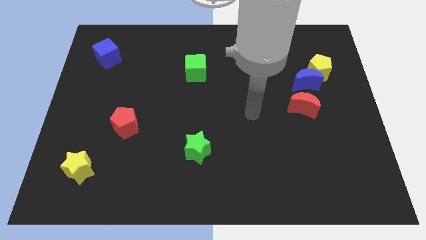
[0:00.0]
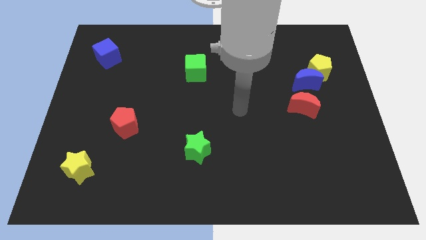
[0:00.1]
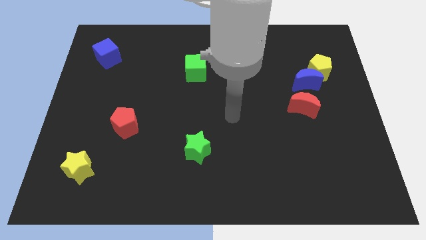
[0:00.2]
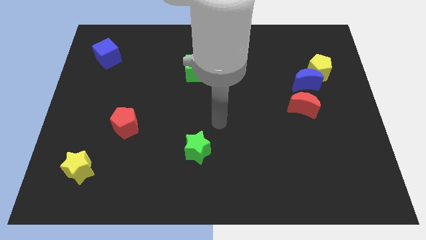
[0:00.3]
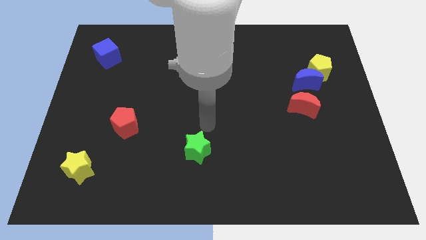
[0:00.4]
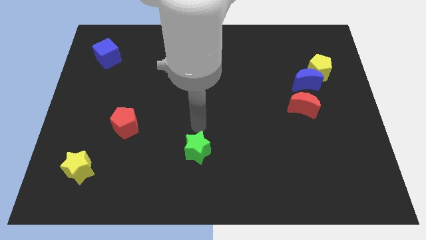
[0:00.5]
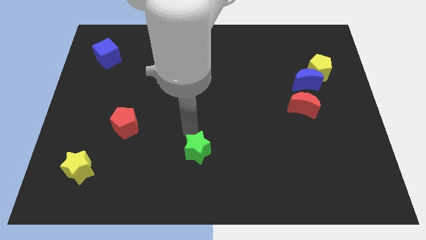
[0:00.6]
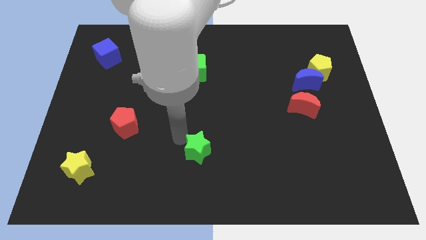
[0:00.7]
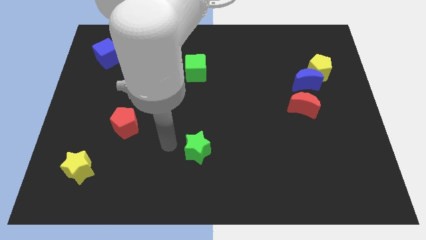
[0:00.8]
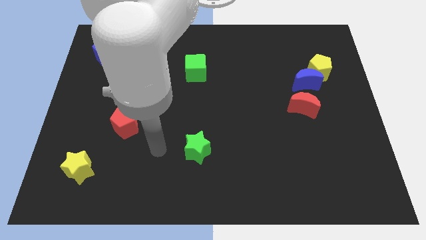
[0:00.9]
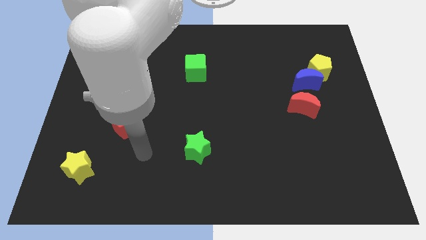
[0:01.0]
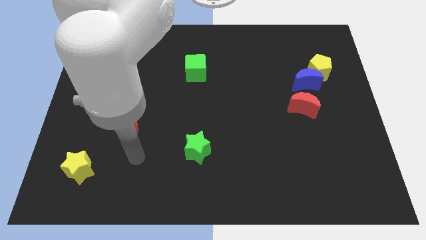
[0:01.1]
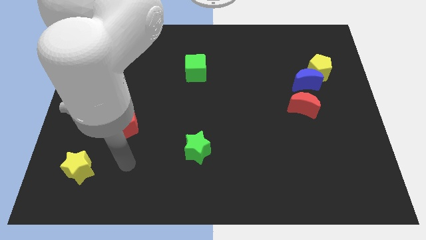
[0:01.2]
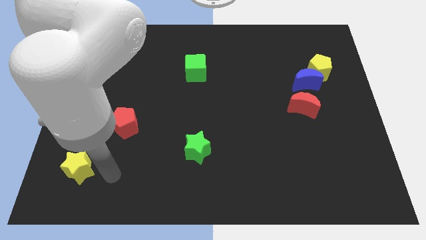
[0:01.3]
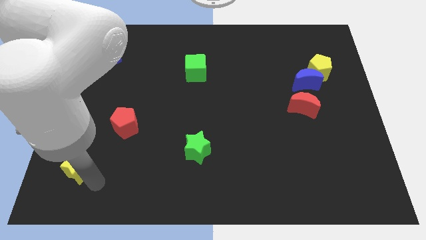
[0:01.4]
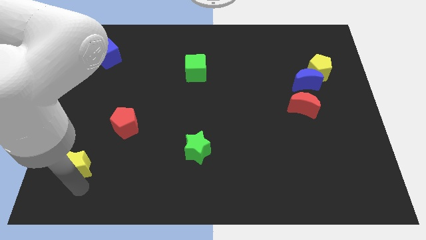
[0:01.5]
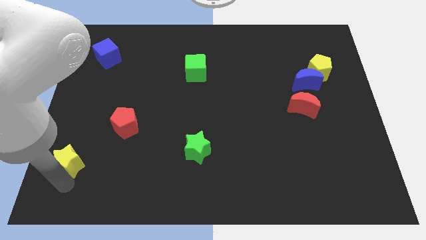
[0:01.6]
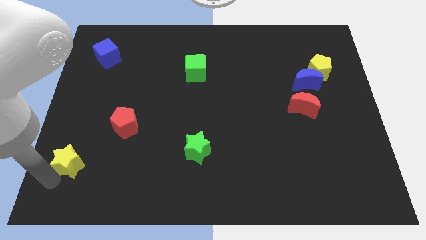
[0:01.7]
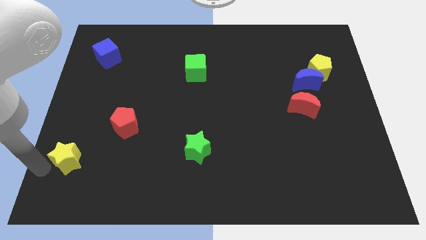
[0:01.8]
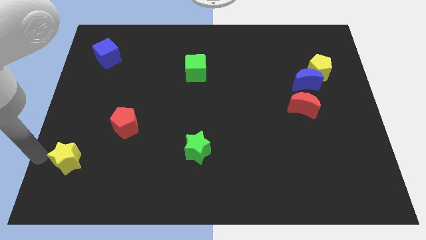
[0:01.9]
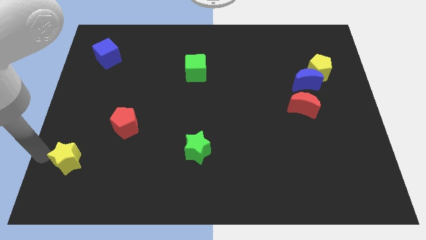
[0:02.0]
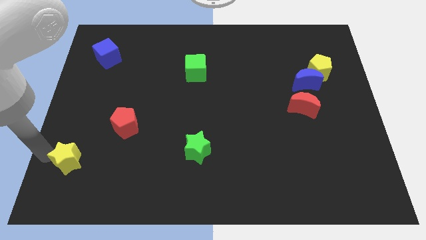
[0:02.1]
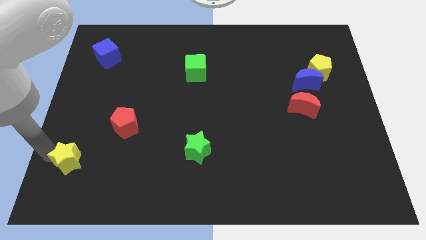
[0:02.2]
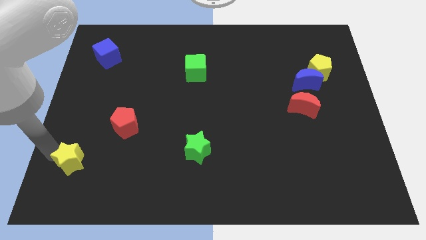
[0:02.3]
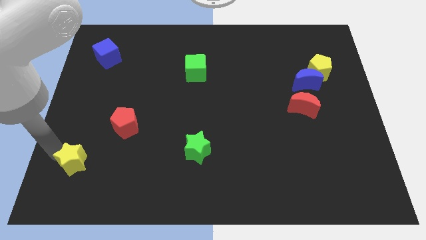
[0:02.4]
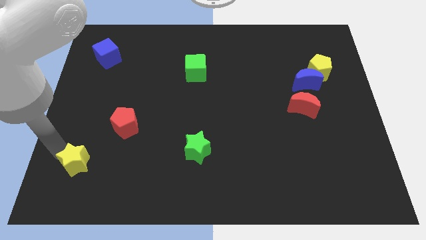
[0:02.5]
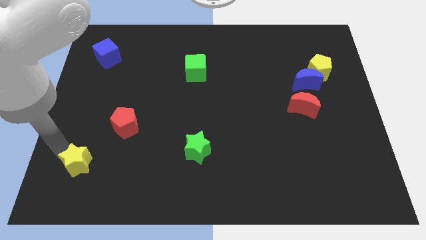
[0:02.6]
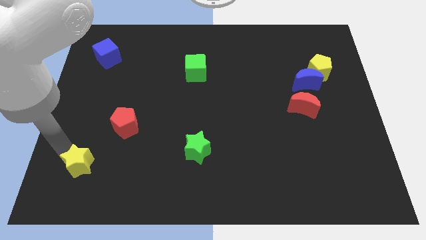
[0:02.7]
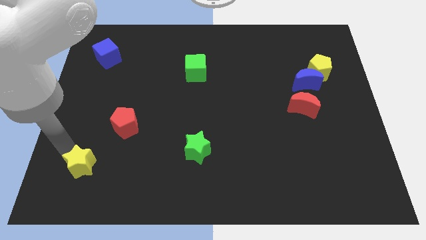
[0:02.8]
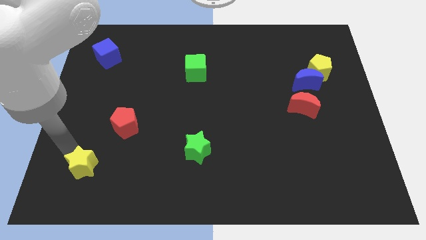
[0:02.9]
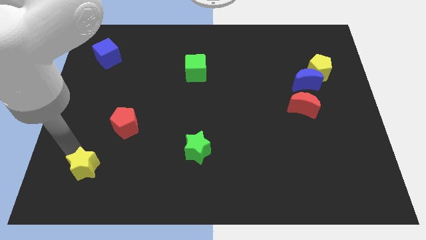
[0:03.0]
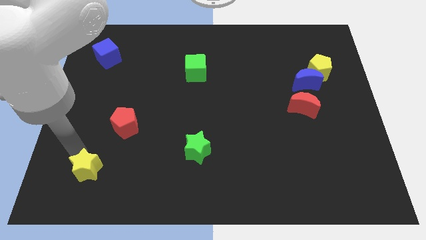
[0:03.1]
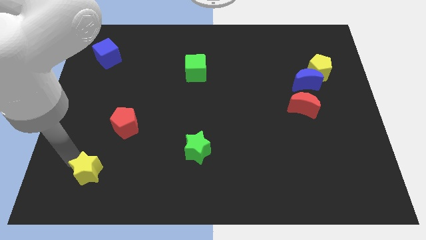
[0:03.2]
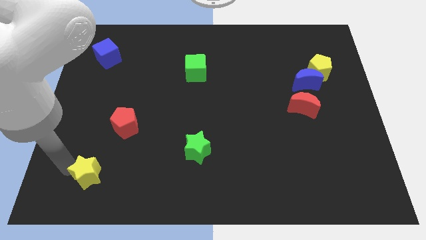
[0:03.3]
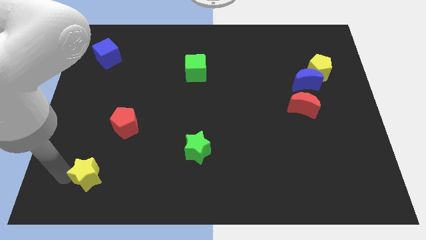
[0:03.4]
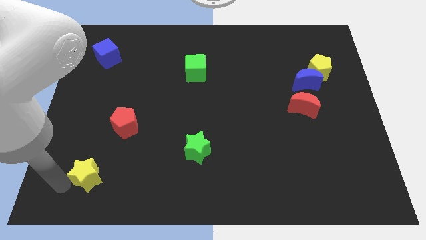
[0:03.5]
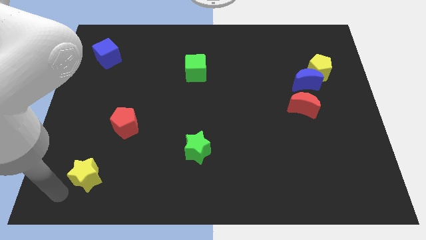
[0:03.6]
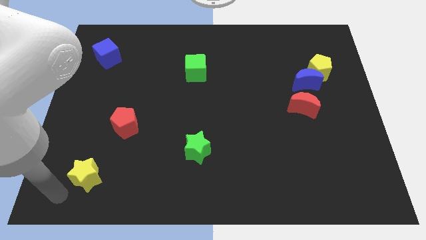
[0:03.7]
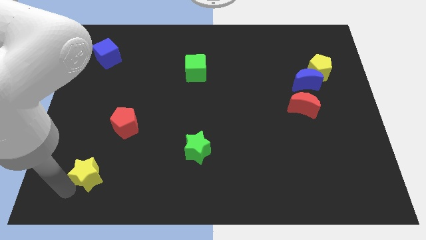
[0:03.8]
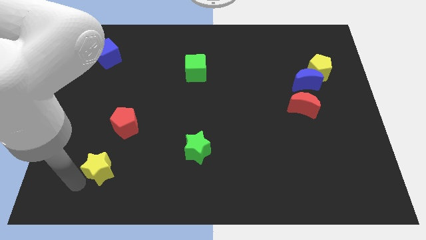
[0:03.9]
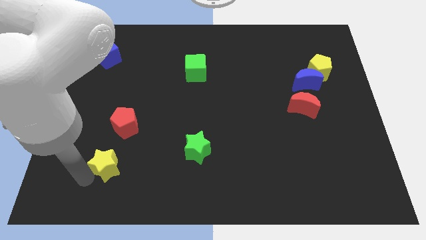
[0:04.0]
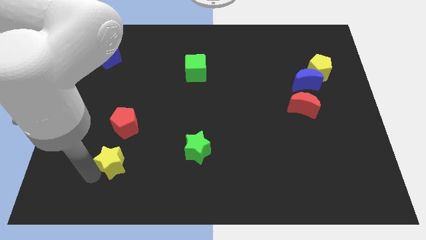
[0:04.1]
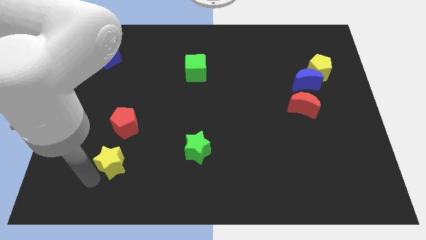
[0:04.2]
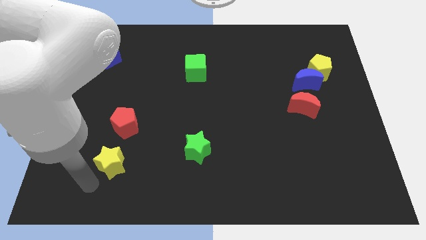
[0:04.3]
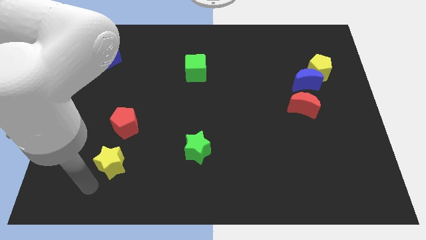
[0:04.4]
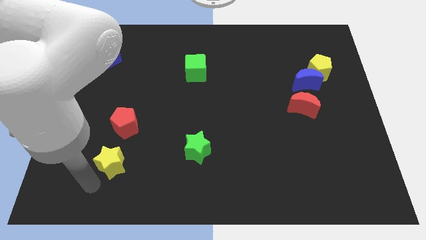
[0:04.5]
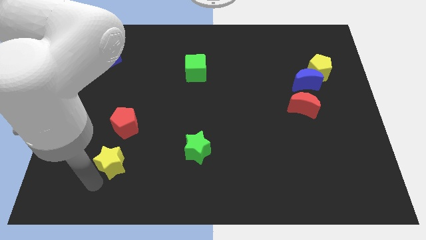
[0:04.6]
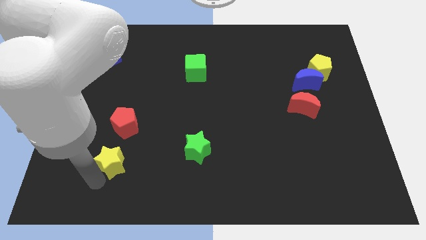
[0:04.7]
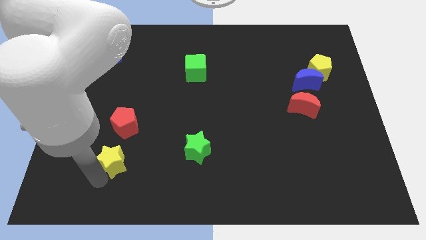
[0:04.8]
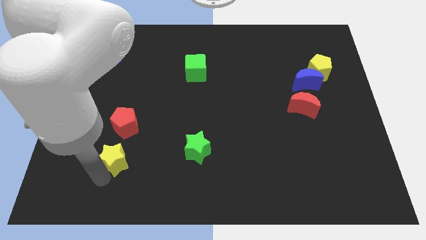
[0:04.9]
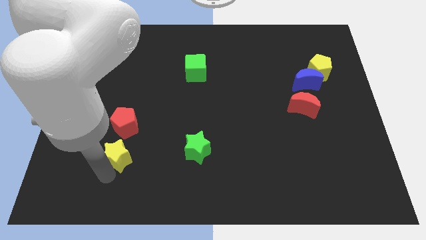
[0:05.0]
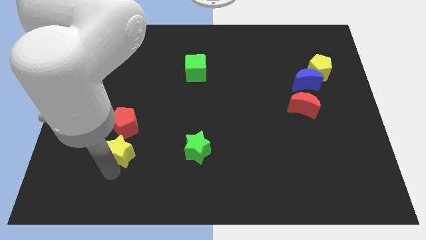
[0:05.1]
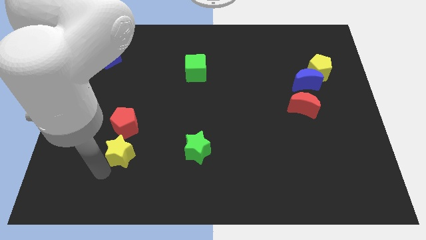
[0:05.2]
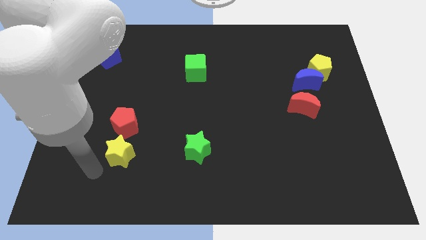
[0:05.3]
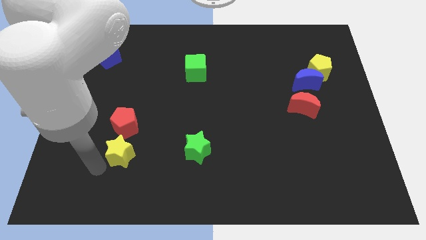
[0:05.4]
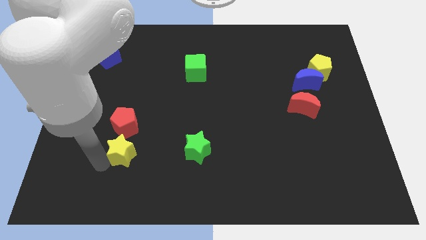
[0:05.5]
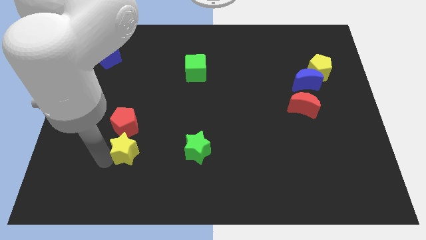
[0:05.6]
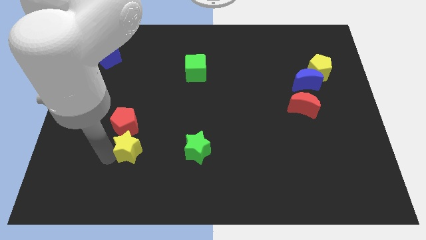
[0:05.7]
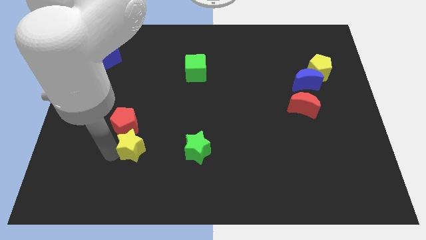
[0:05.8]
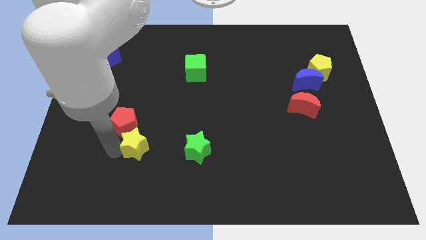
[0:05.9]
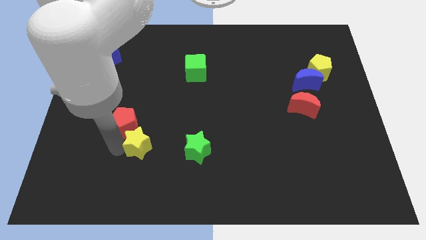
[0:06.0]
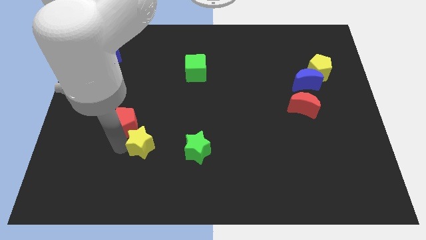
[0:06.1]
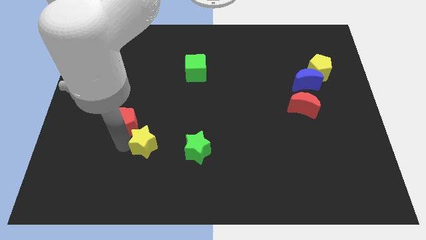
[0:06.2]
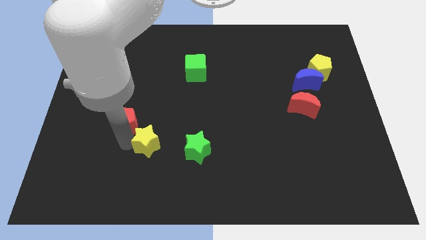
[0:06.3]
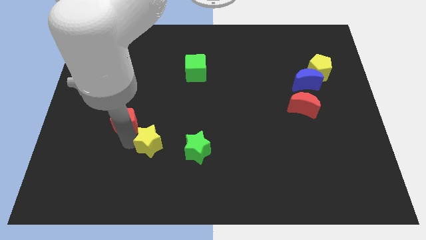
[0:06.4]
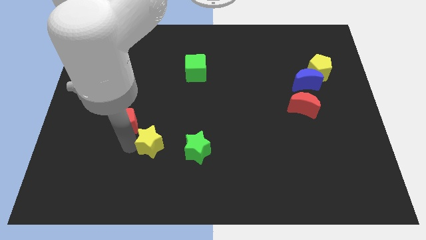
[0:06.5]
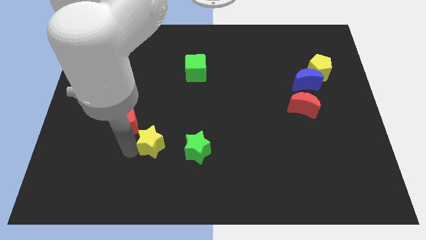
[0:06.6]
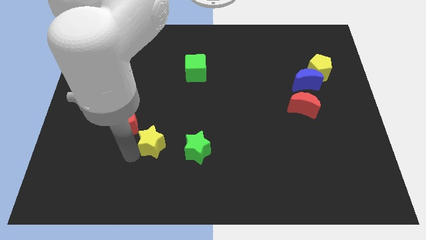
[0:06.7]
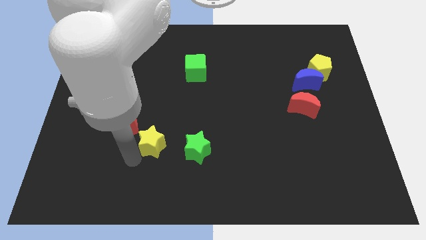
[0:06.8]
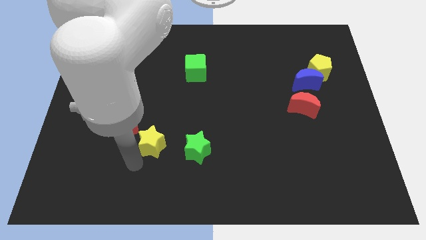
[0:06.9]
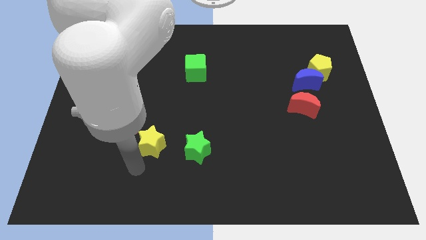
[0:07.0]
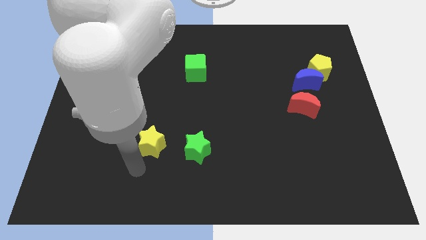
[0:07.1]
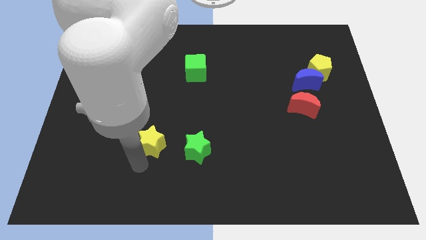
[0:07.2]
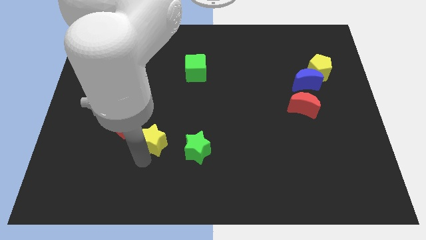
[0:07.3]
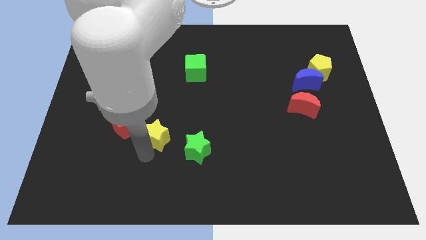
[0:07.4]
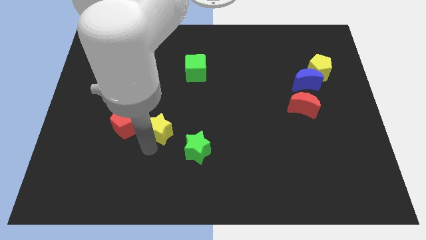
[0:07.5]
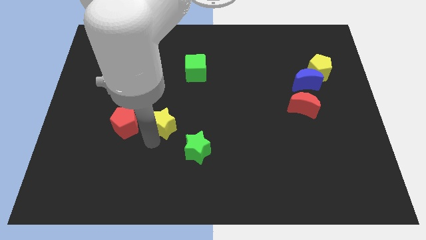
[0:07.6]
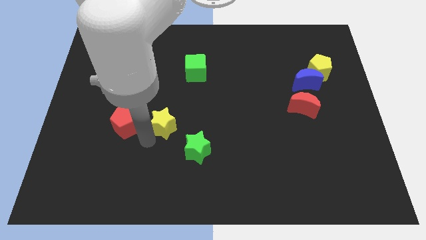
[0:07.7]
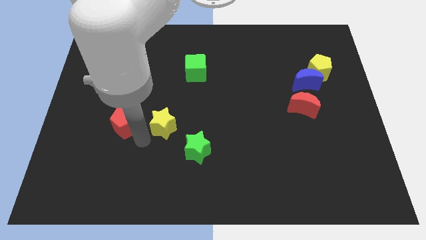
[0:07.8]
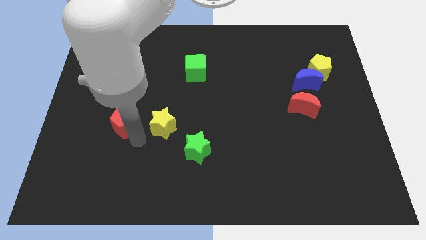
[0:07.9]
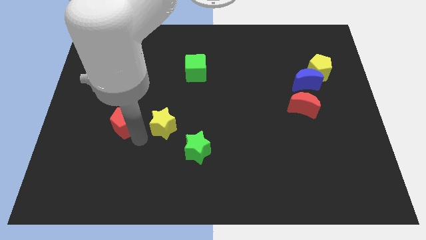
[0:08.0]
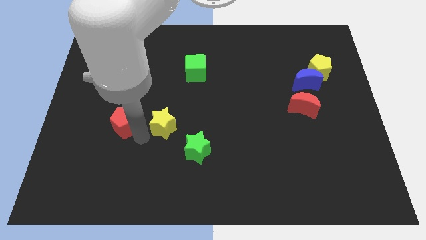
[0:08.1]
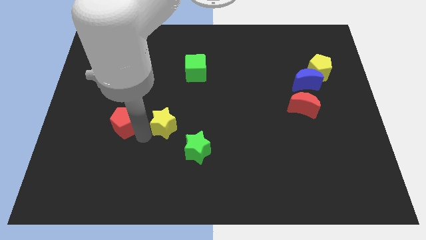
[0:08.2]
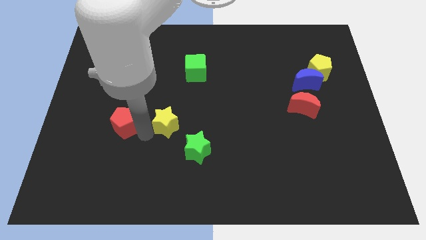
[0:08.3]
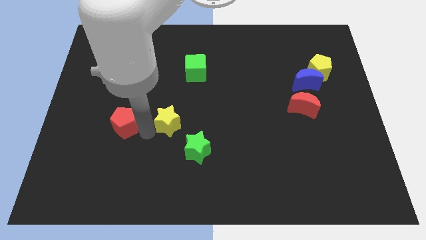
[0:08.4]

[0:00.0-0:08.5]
push the yellow star to the middle of the board
